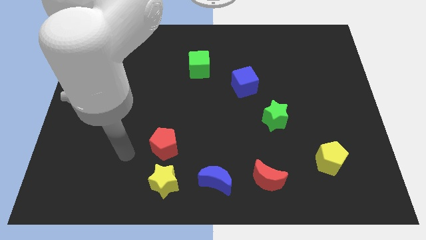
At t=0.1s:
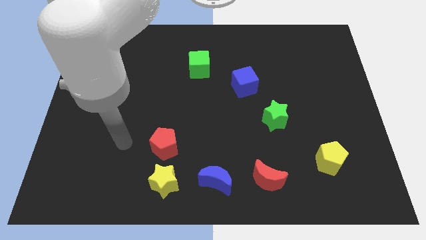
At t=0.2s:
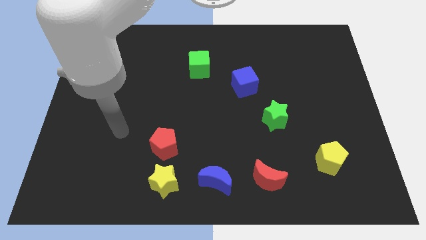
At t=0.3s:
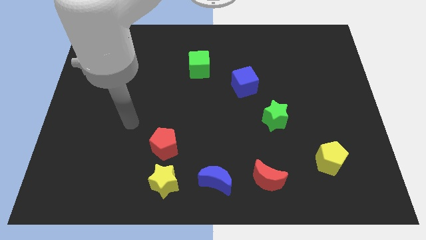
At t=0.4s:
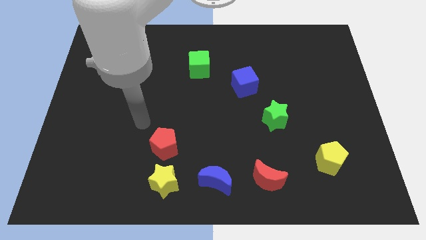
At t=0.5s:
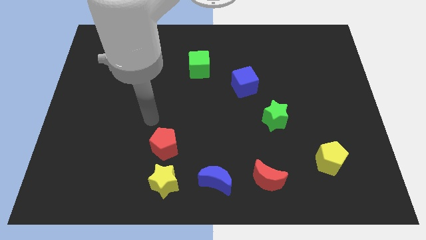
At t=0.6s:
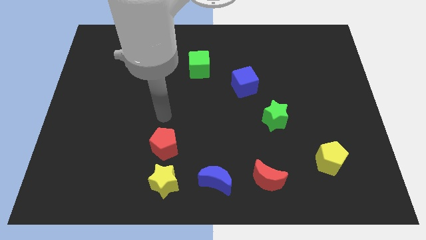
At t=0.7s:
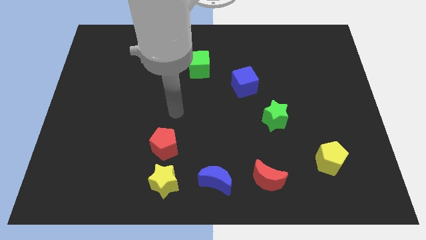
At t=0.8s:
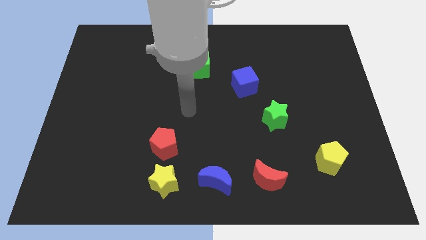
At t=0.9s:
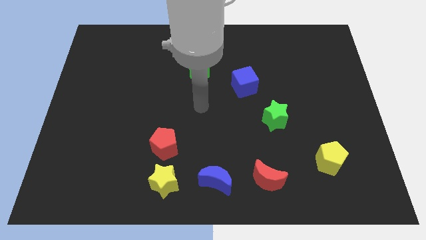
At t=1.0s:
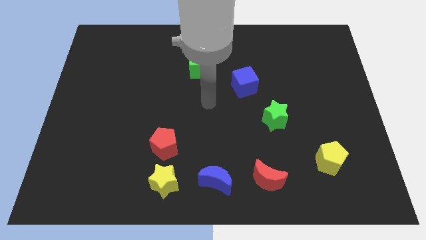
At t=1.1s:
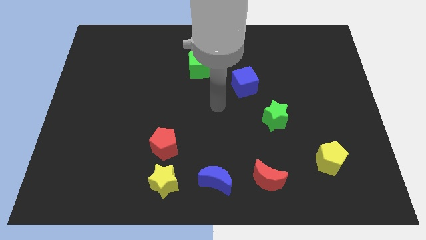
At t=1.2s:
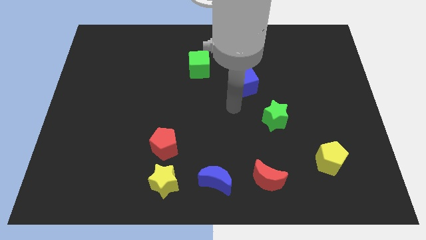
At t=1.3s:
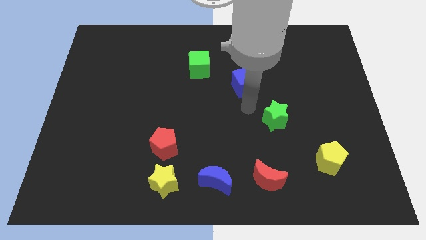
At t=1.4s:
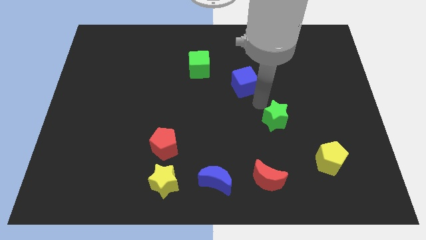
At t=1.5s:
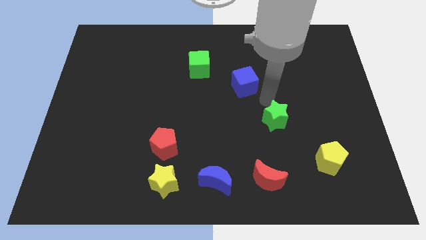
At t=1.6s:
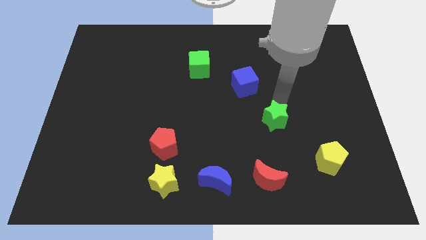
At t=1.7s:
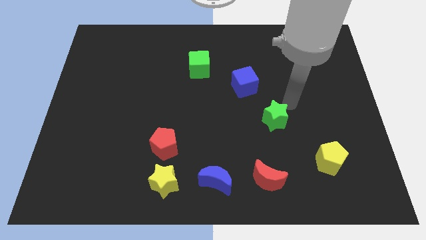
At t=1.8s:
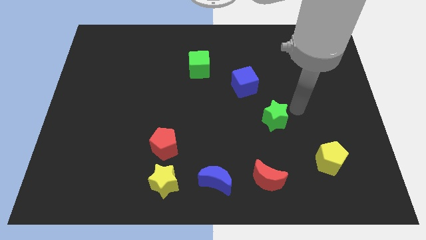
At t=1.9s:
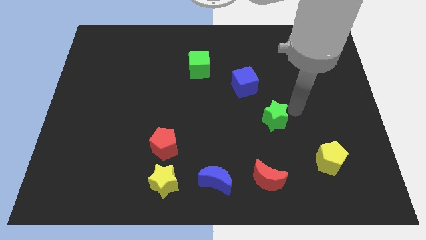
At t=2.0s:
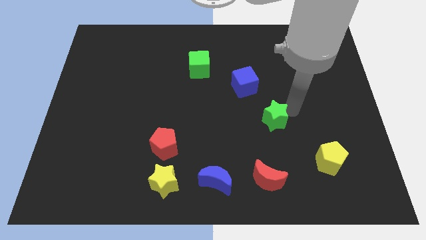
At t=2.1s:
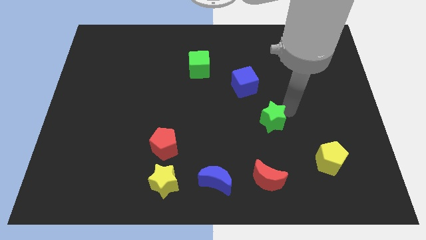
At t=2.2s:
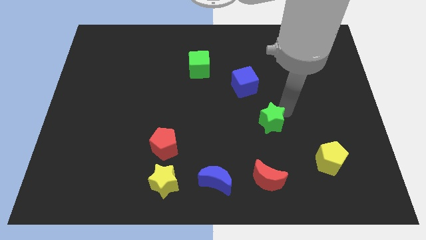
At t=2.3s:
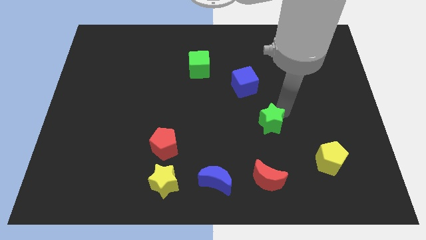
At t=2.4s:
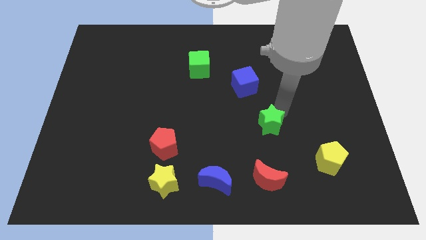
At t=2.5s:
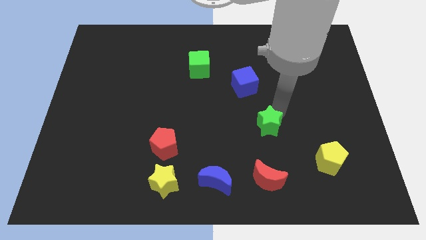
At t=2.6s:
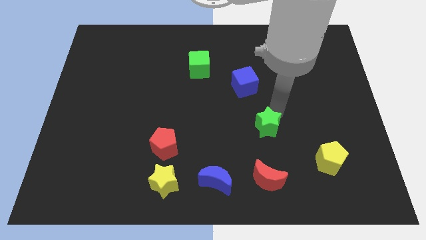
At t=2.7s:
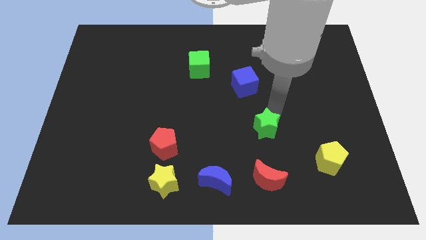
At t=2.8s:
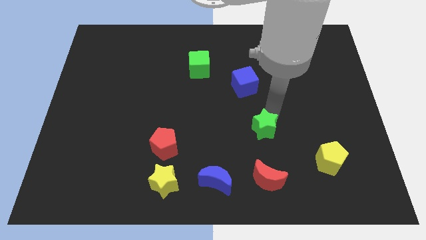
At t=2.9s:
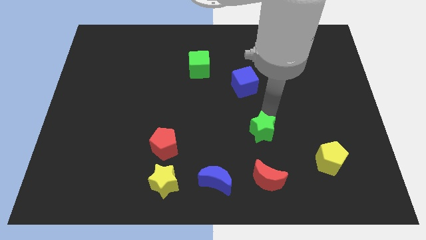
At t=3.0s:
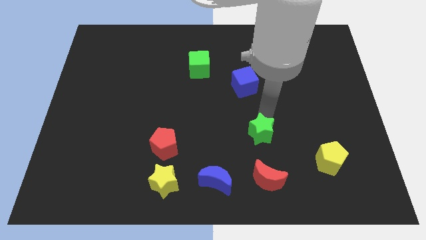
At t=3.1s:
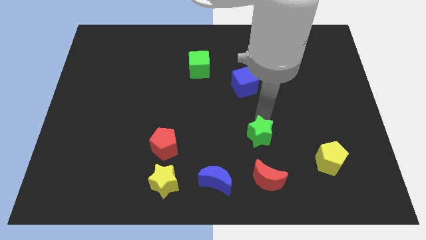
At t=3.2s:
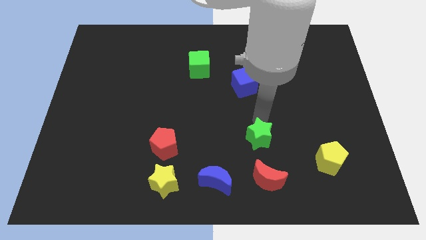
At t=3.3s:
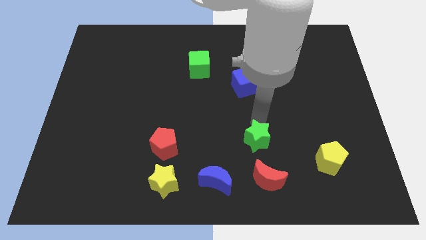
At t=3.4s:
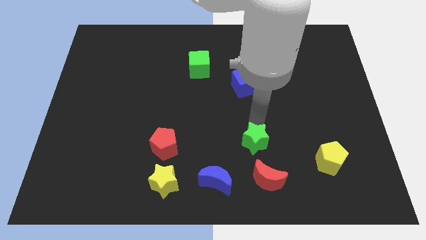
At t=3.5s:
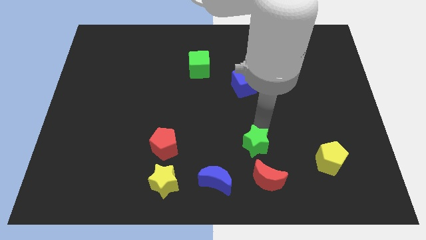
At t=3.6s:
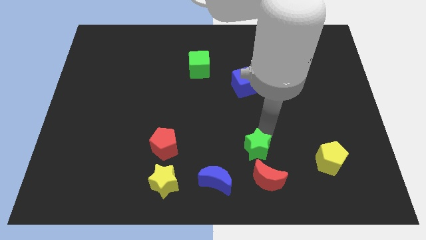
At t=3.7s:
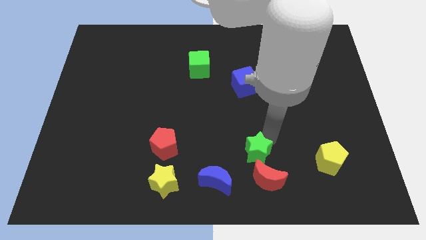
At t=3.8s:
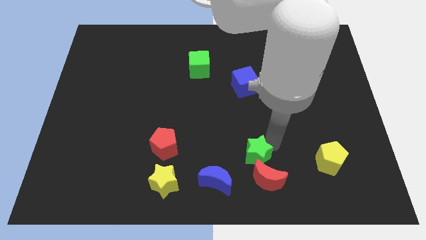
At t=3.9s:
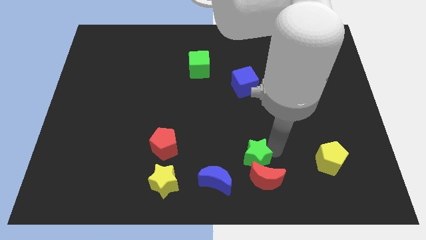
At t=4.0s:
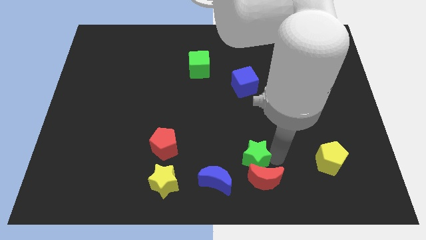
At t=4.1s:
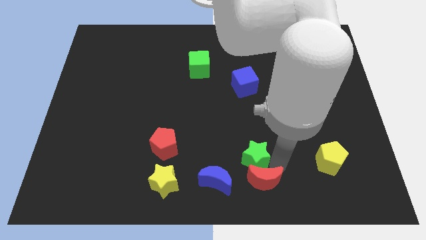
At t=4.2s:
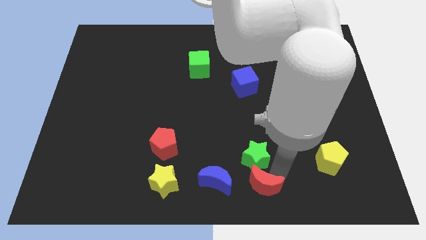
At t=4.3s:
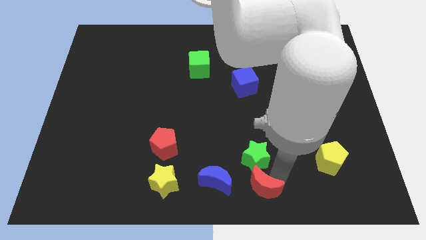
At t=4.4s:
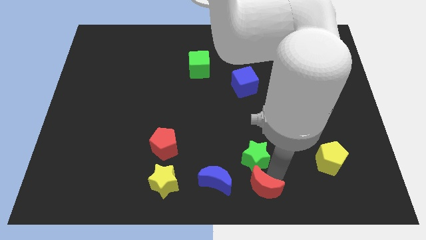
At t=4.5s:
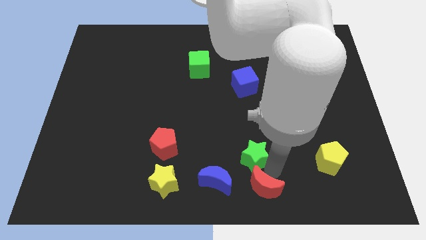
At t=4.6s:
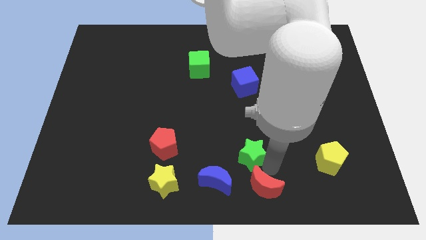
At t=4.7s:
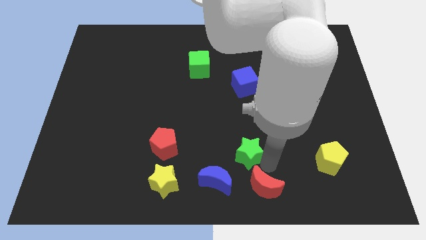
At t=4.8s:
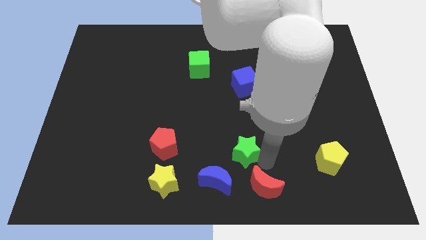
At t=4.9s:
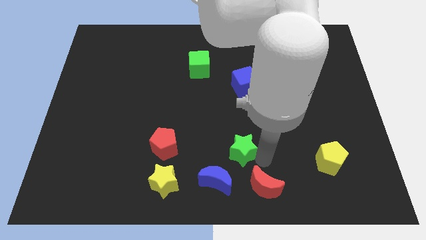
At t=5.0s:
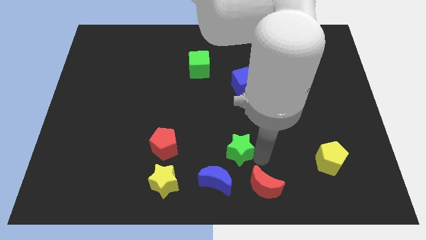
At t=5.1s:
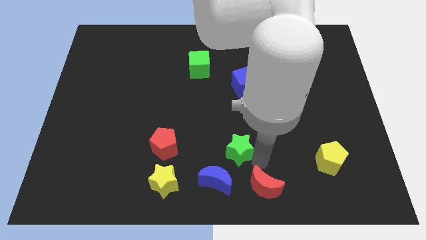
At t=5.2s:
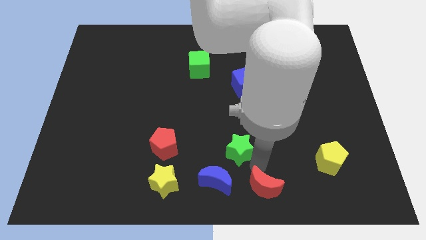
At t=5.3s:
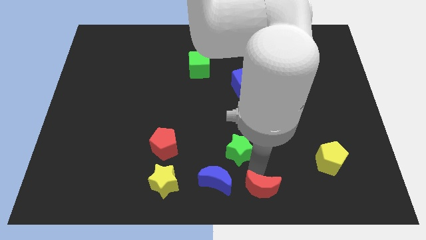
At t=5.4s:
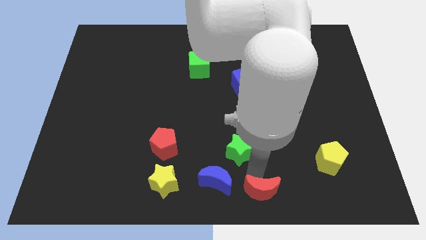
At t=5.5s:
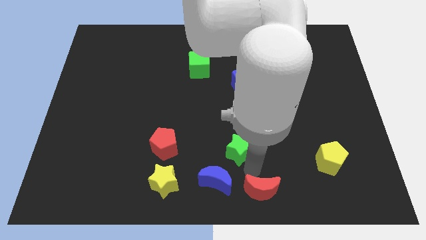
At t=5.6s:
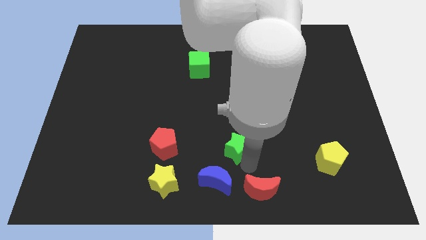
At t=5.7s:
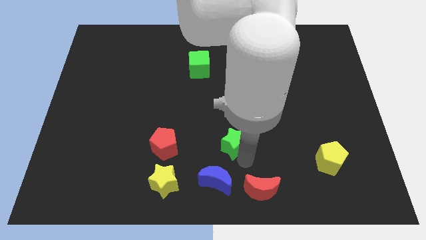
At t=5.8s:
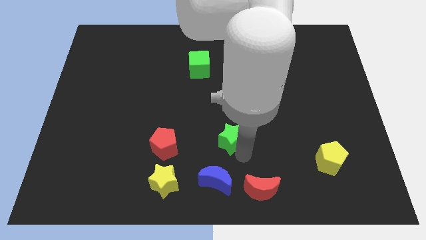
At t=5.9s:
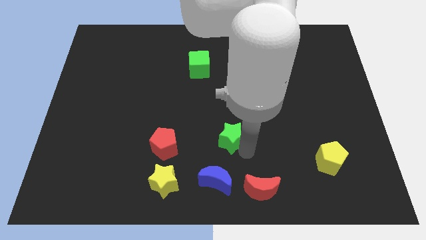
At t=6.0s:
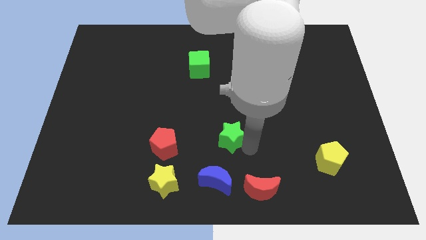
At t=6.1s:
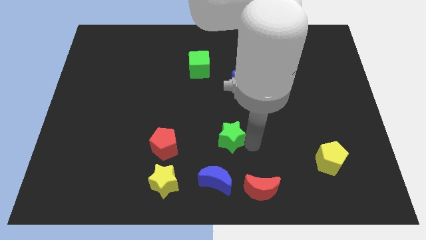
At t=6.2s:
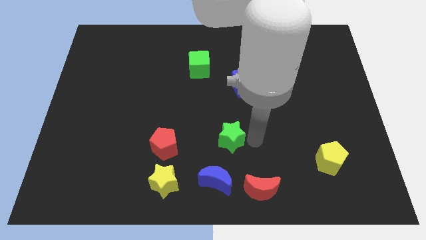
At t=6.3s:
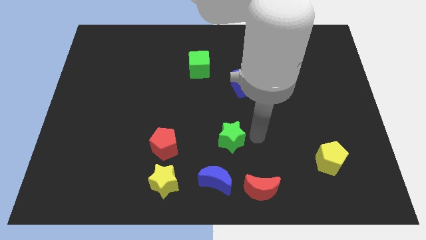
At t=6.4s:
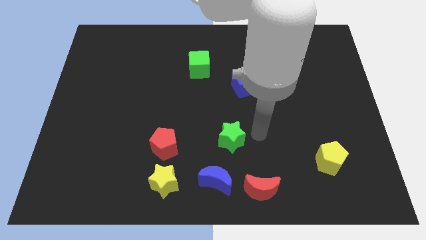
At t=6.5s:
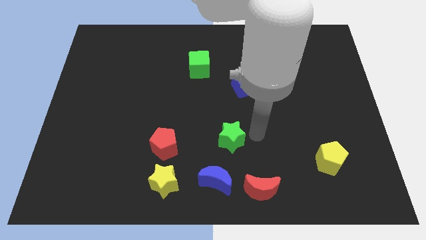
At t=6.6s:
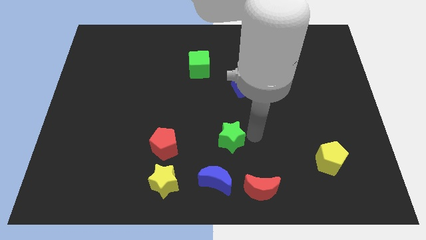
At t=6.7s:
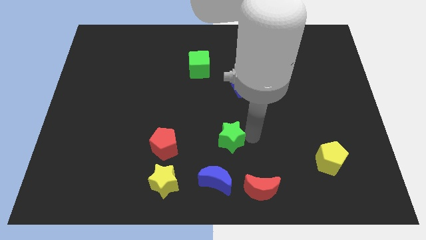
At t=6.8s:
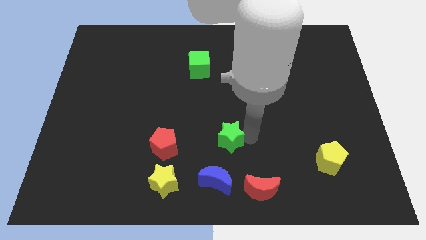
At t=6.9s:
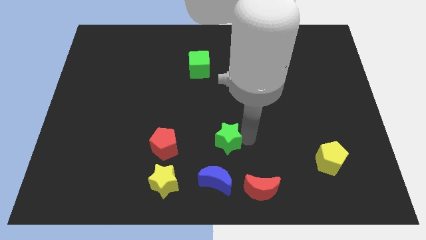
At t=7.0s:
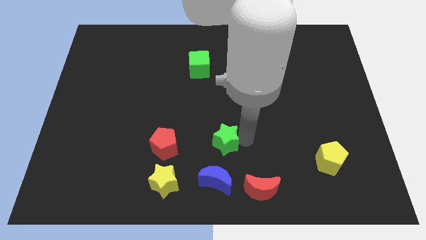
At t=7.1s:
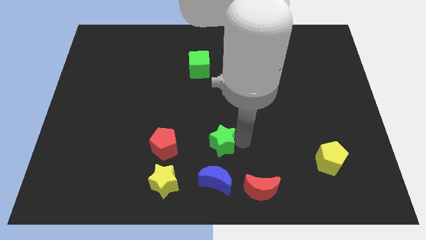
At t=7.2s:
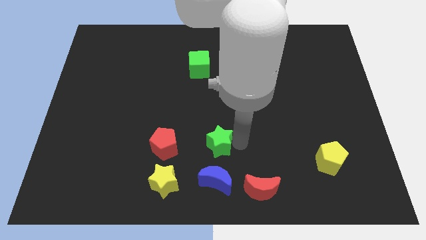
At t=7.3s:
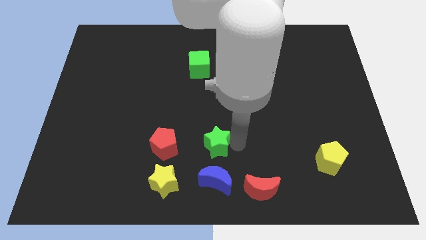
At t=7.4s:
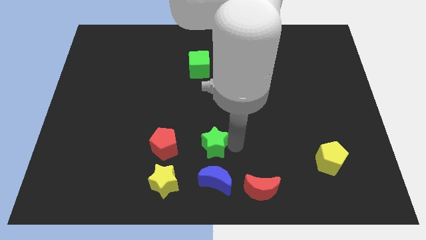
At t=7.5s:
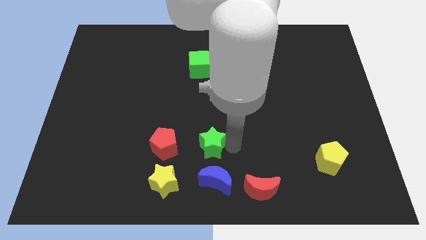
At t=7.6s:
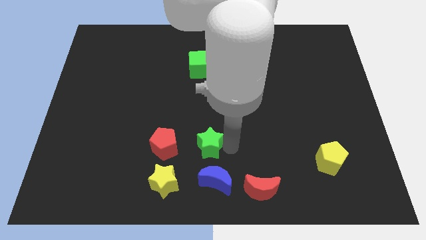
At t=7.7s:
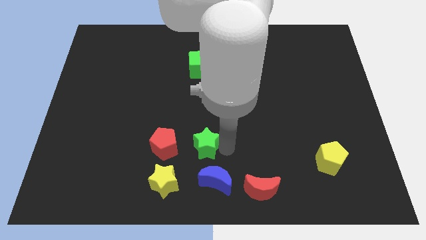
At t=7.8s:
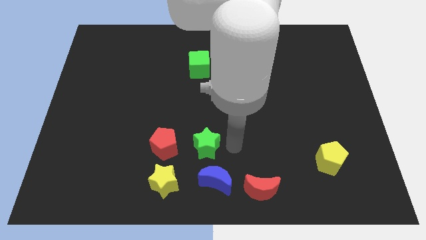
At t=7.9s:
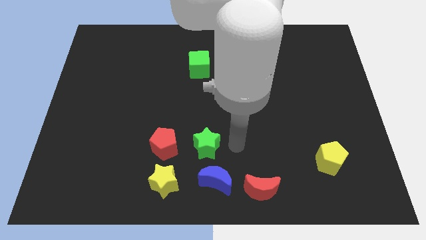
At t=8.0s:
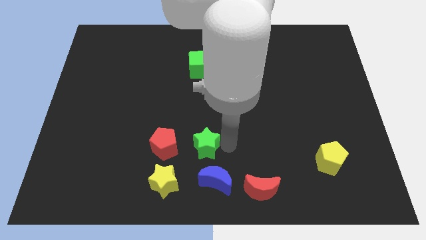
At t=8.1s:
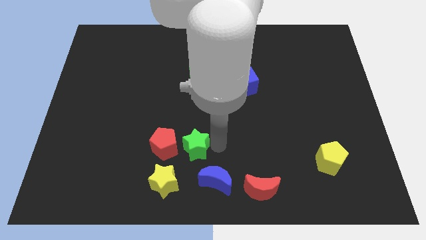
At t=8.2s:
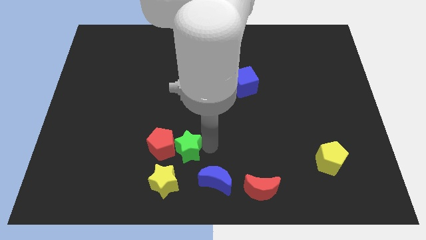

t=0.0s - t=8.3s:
move the green star next to the red pentagon
